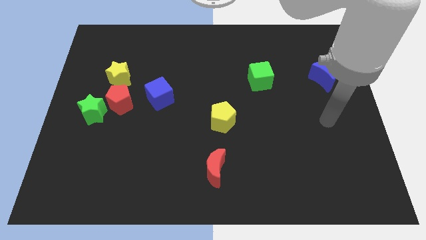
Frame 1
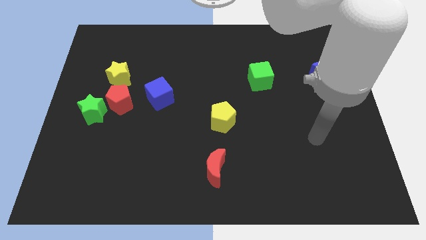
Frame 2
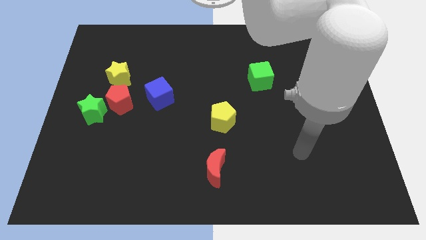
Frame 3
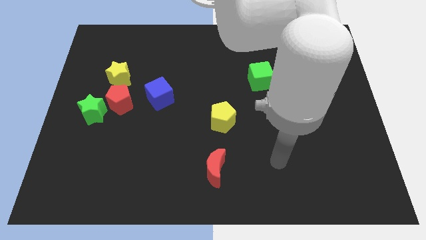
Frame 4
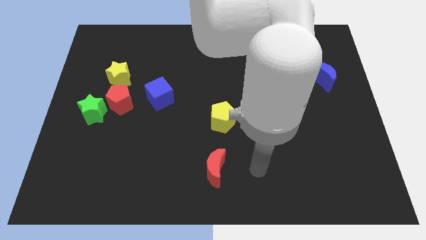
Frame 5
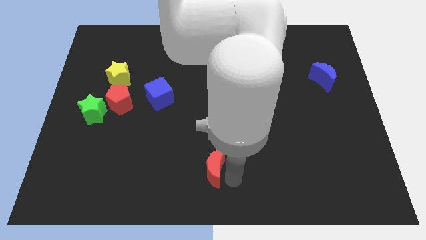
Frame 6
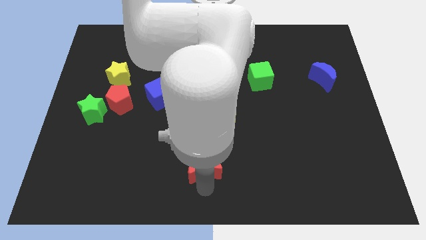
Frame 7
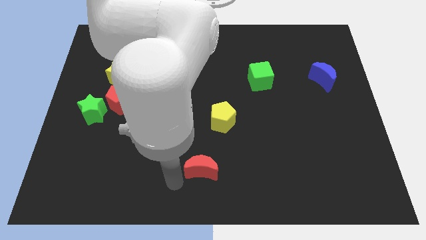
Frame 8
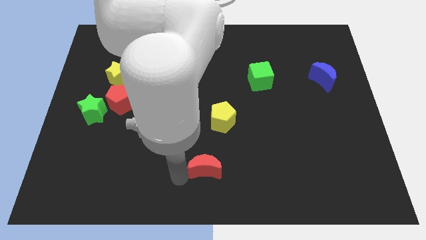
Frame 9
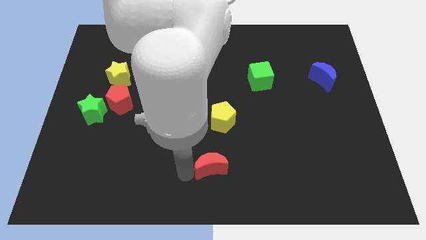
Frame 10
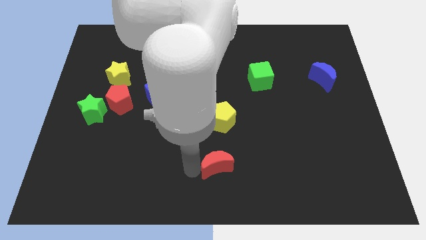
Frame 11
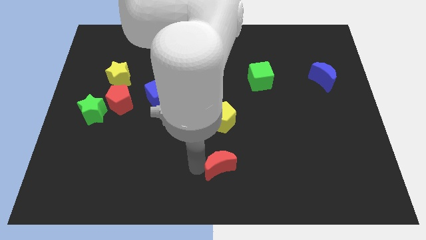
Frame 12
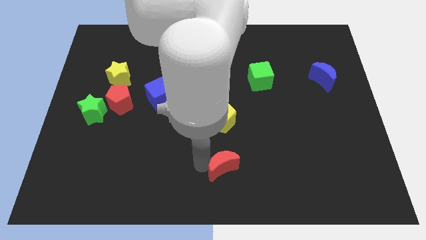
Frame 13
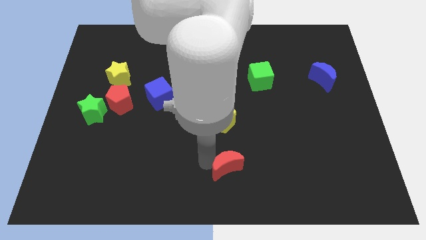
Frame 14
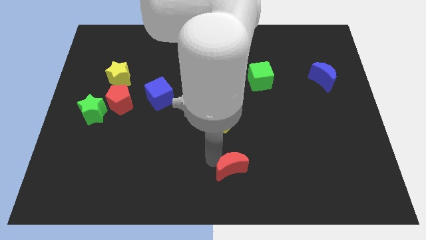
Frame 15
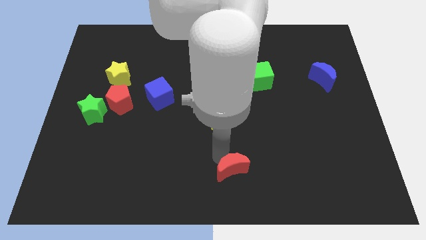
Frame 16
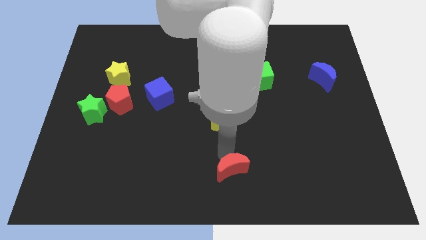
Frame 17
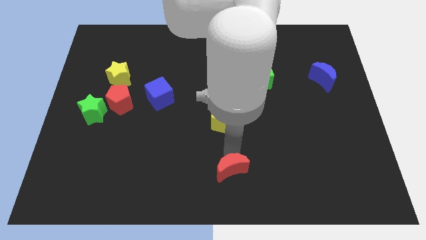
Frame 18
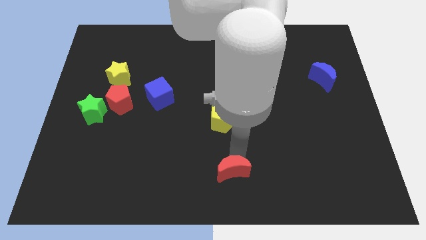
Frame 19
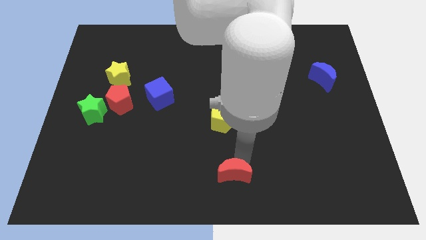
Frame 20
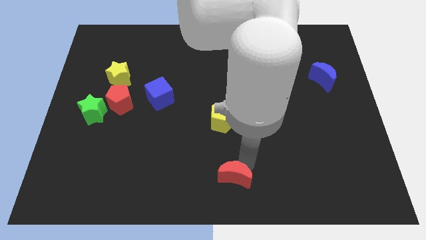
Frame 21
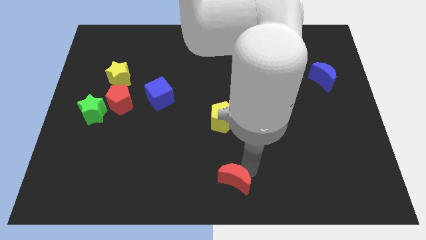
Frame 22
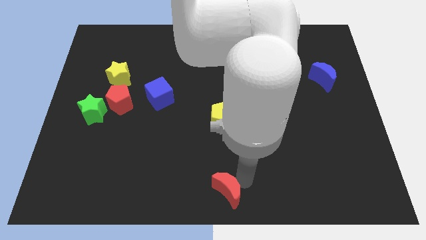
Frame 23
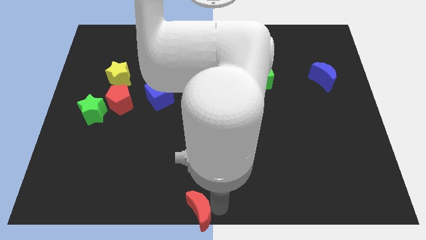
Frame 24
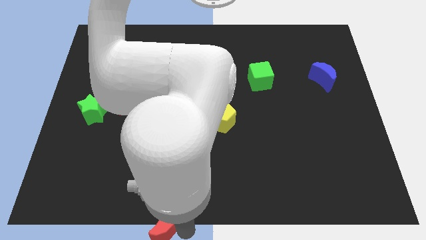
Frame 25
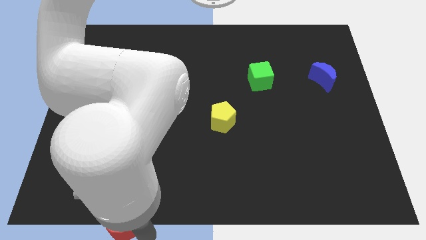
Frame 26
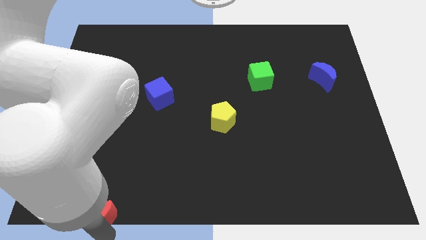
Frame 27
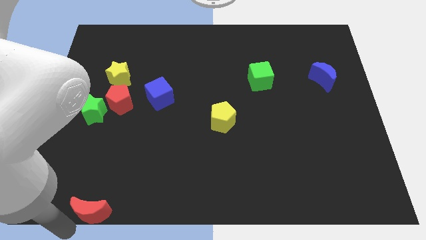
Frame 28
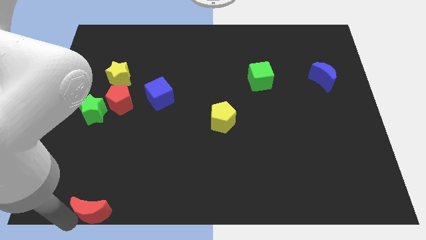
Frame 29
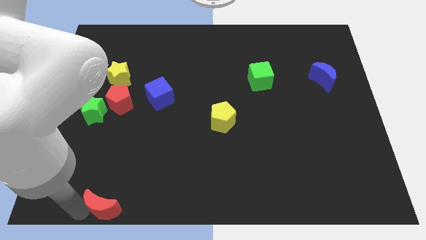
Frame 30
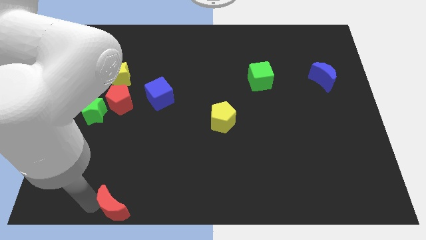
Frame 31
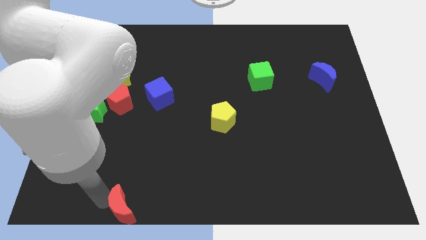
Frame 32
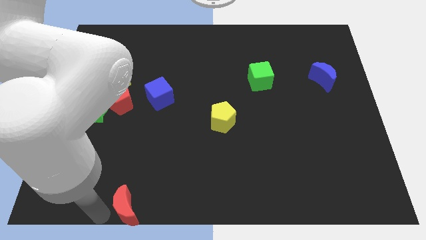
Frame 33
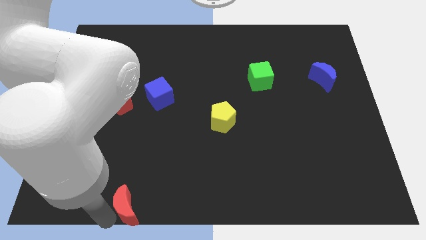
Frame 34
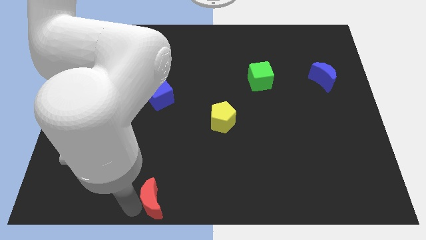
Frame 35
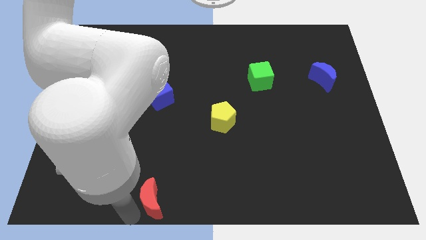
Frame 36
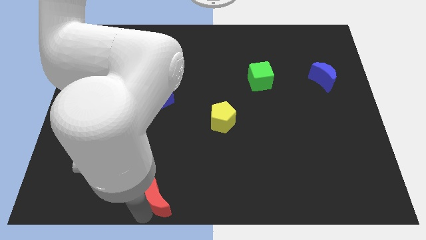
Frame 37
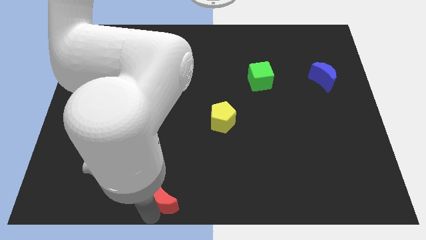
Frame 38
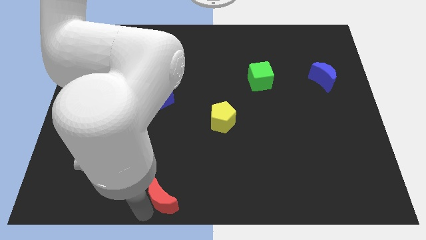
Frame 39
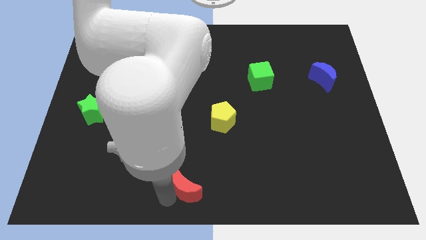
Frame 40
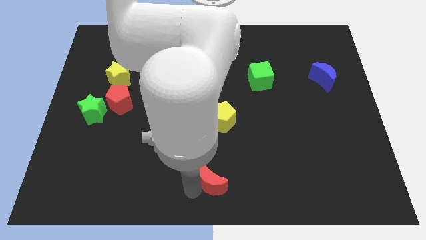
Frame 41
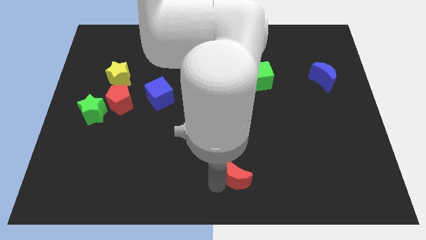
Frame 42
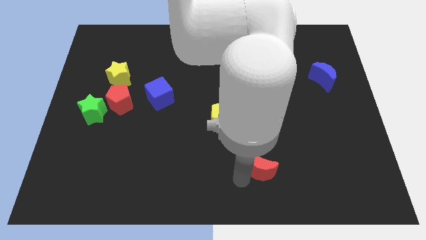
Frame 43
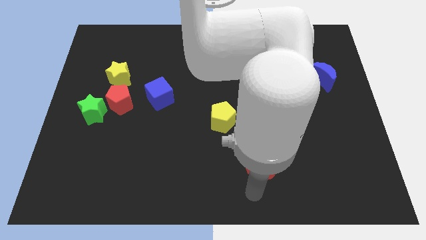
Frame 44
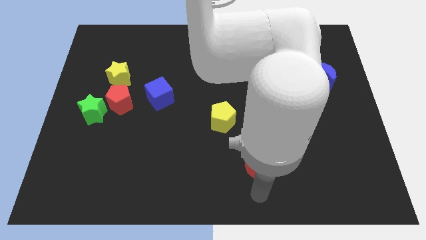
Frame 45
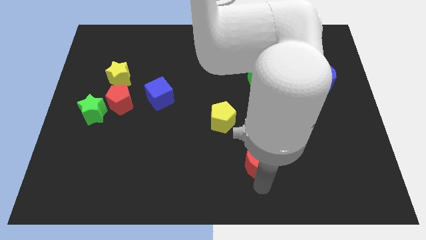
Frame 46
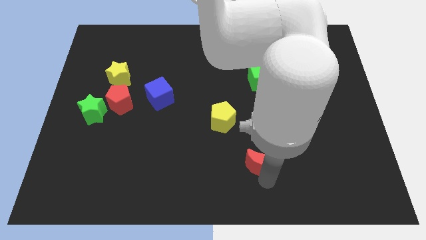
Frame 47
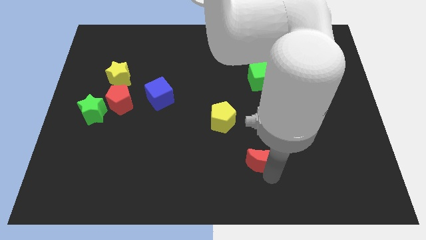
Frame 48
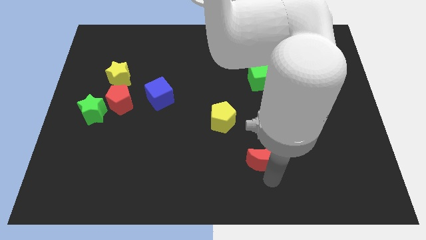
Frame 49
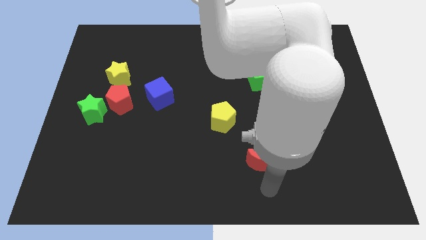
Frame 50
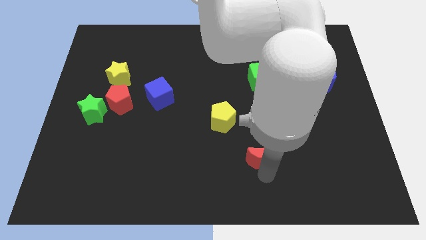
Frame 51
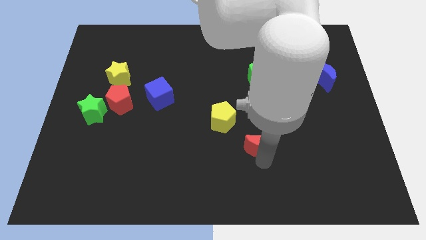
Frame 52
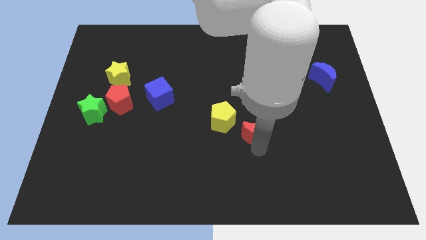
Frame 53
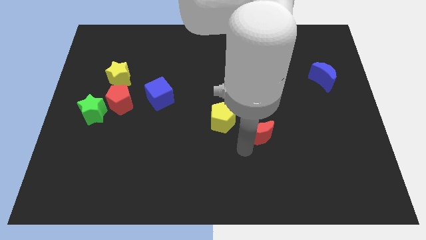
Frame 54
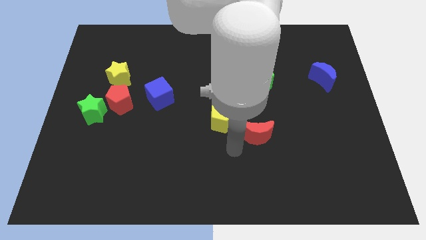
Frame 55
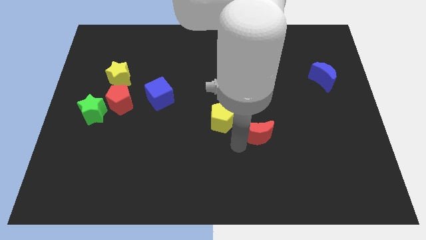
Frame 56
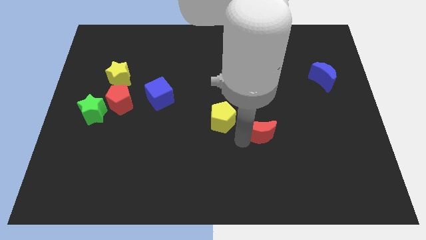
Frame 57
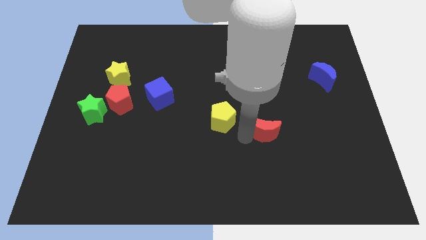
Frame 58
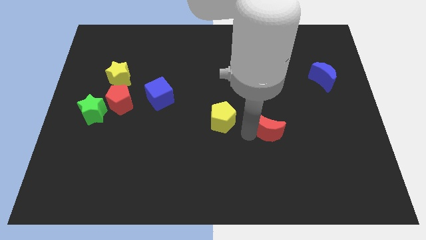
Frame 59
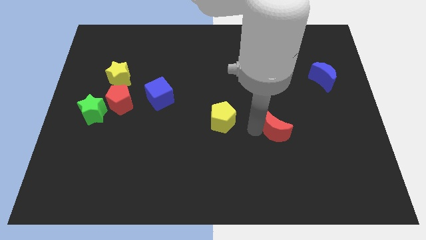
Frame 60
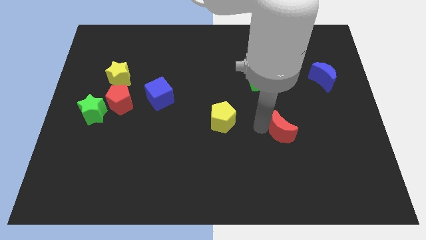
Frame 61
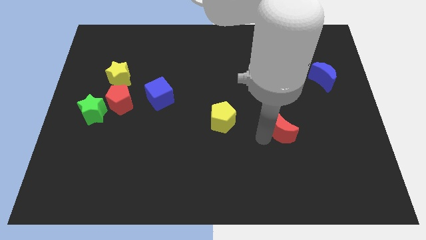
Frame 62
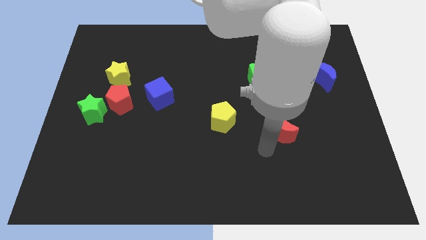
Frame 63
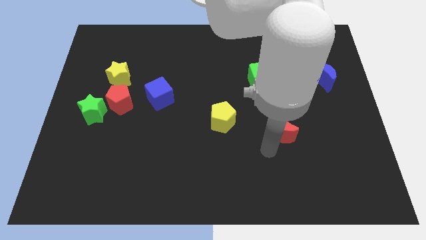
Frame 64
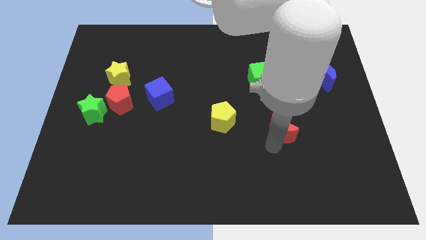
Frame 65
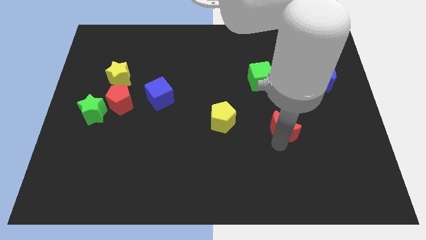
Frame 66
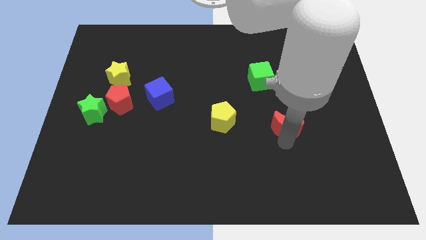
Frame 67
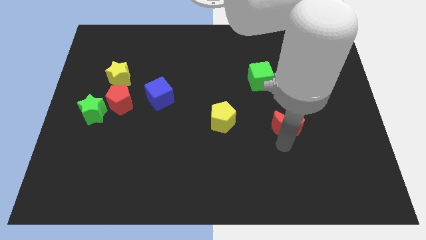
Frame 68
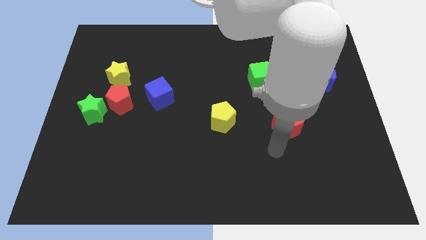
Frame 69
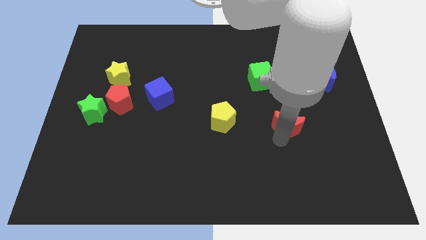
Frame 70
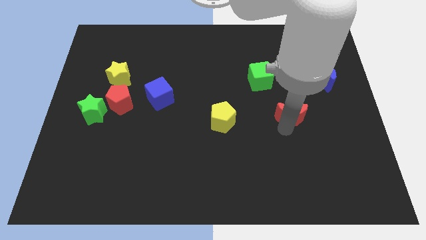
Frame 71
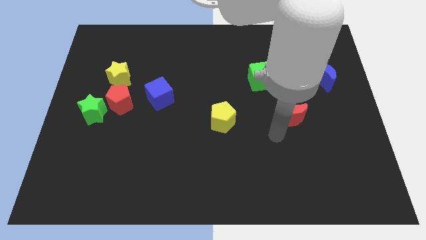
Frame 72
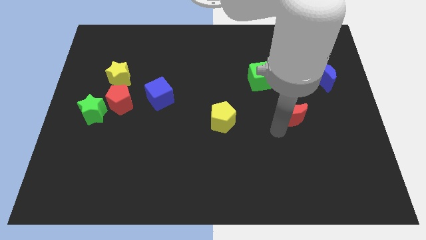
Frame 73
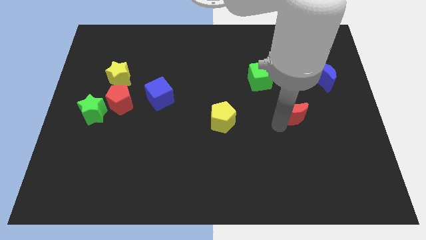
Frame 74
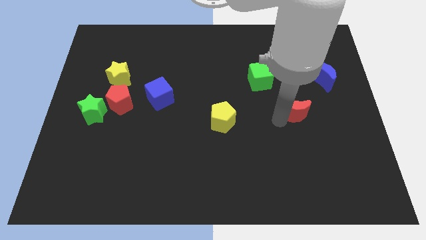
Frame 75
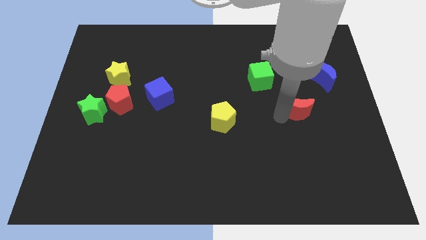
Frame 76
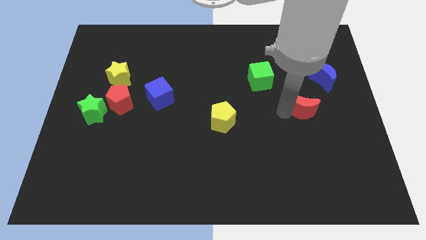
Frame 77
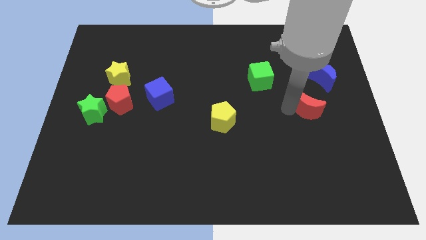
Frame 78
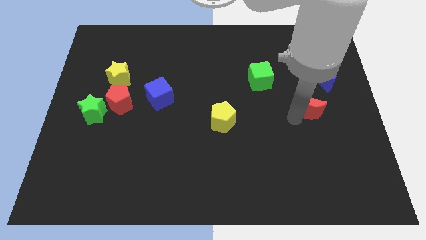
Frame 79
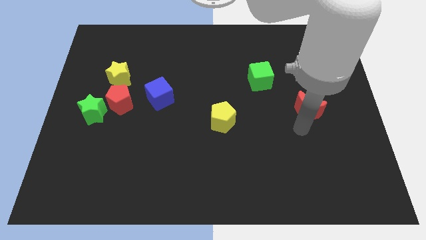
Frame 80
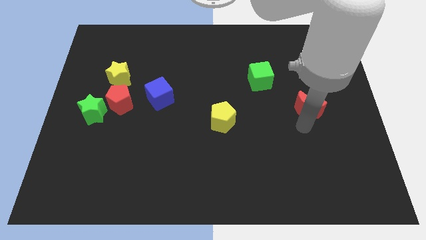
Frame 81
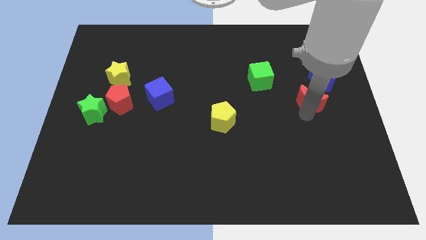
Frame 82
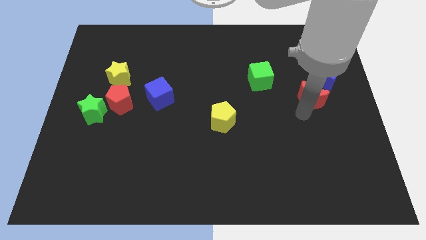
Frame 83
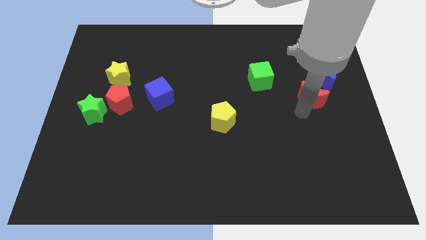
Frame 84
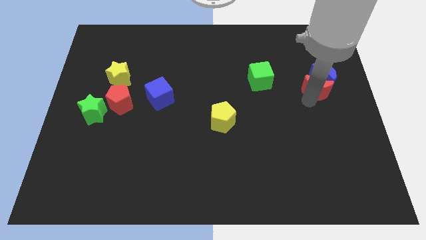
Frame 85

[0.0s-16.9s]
slide the red moon close to the blue moon
